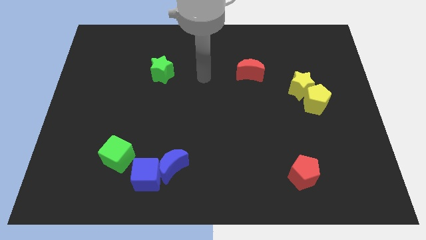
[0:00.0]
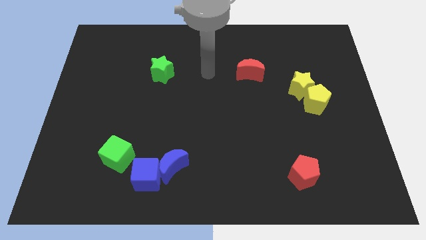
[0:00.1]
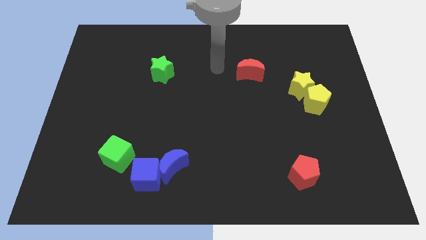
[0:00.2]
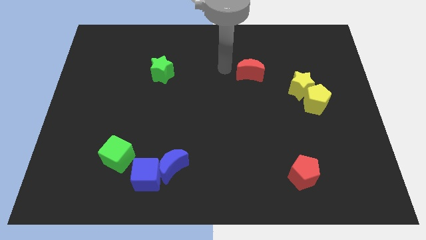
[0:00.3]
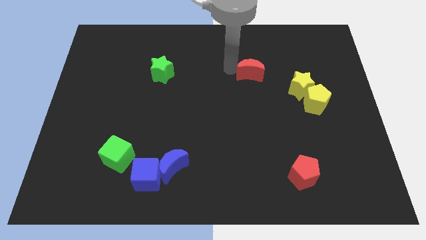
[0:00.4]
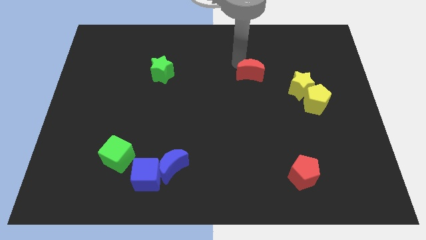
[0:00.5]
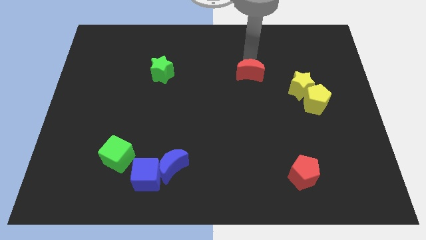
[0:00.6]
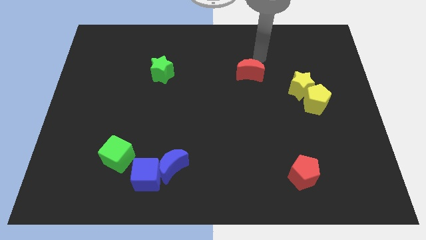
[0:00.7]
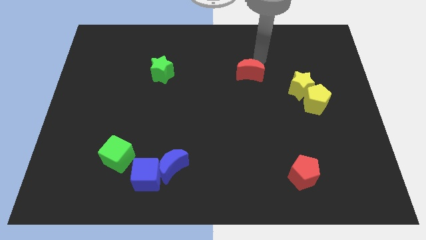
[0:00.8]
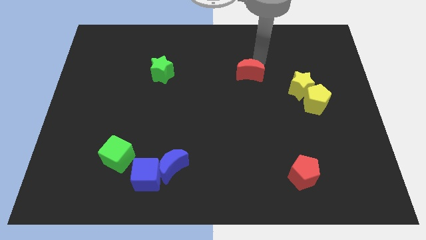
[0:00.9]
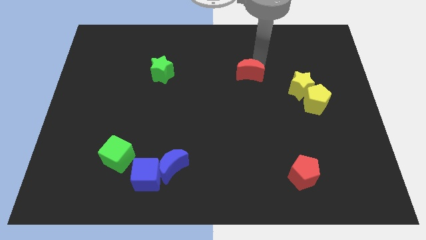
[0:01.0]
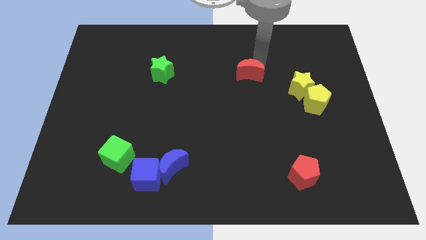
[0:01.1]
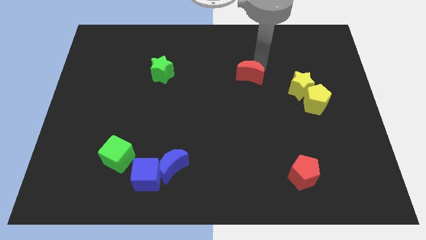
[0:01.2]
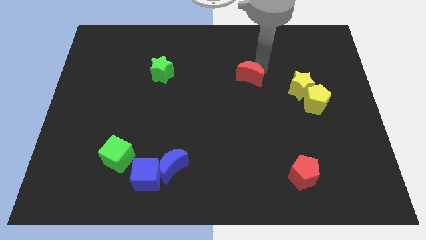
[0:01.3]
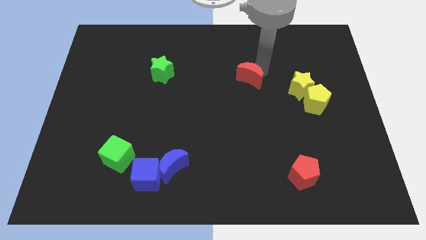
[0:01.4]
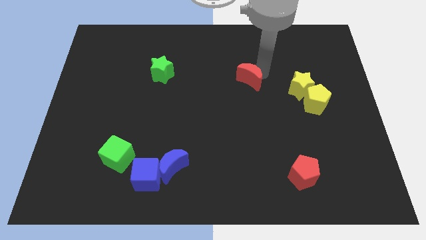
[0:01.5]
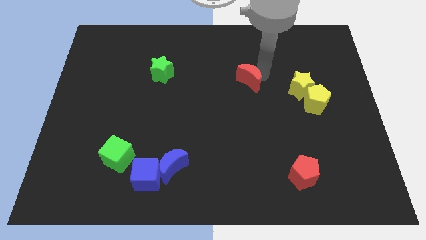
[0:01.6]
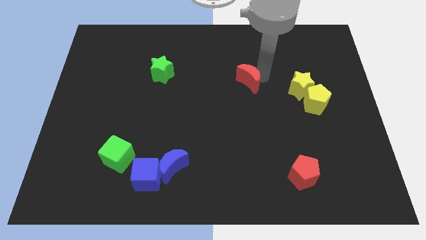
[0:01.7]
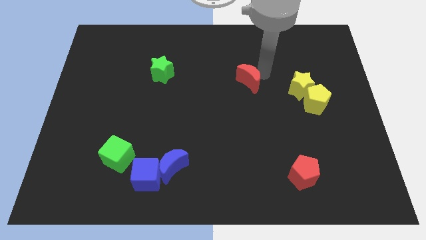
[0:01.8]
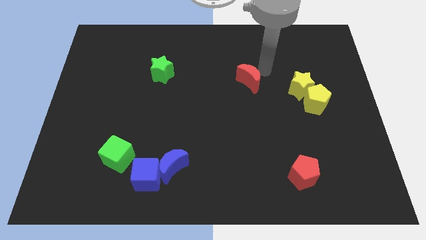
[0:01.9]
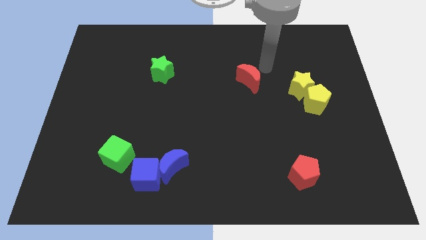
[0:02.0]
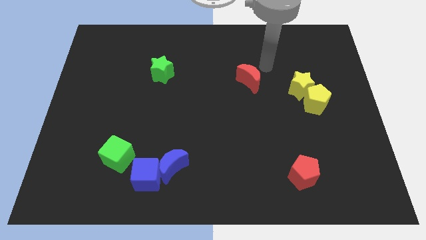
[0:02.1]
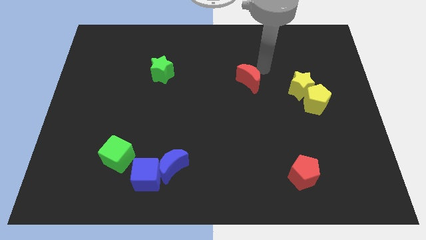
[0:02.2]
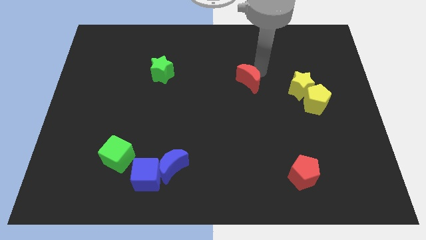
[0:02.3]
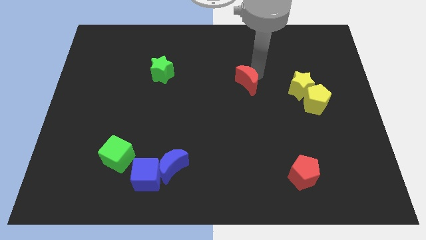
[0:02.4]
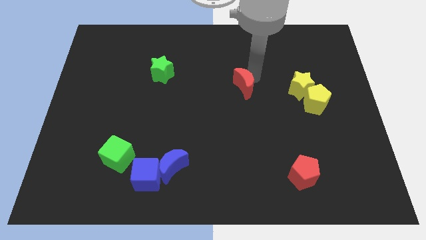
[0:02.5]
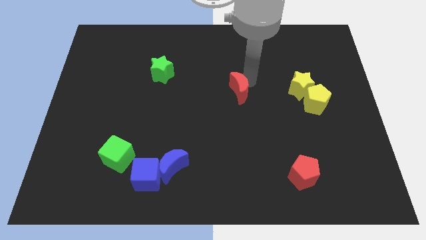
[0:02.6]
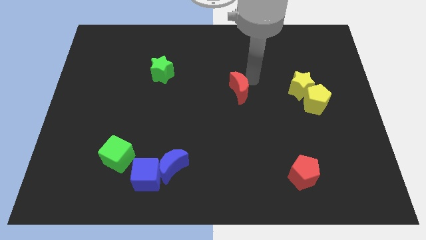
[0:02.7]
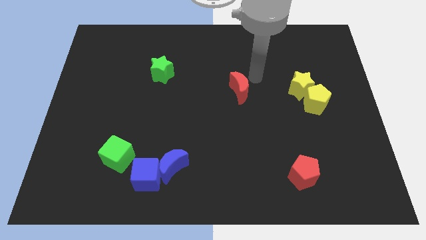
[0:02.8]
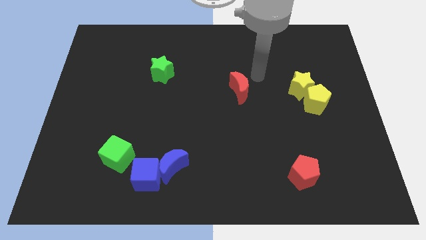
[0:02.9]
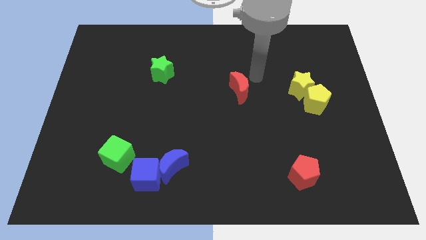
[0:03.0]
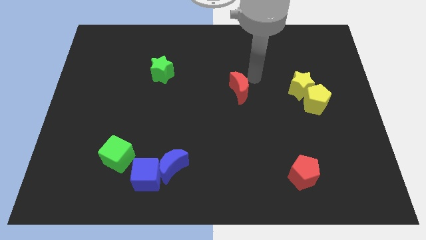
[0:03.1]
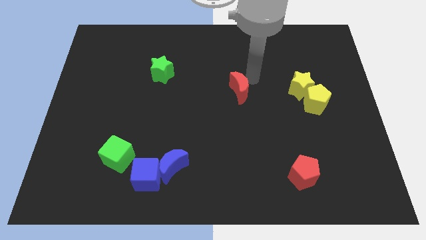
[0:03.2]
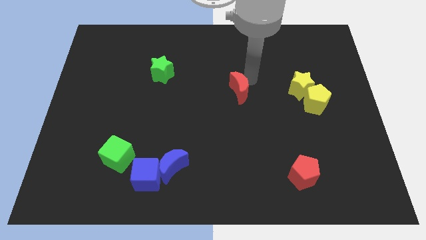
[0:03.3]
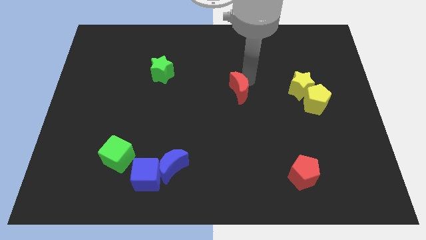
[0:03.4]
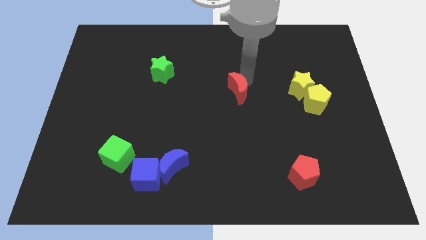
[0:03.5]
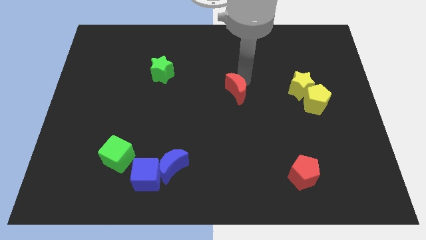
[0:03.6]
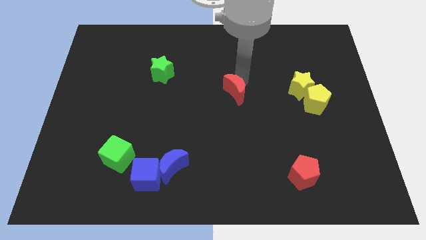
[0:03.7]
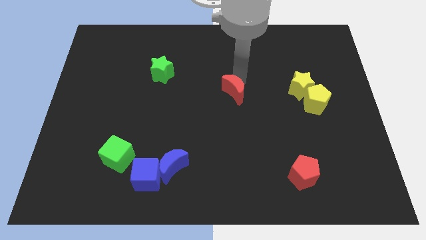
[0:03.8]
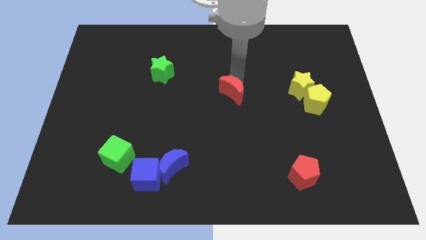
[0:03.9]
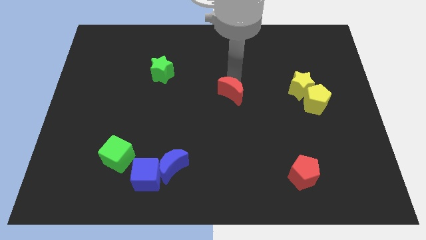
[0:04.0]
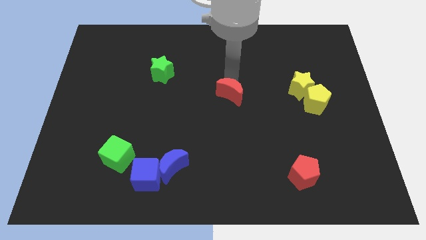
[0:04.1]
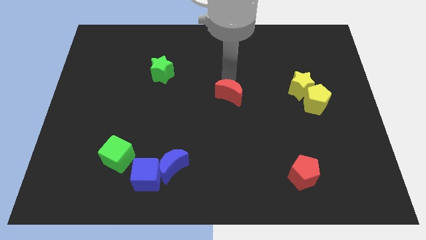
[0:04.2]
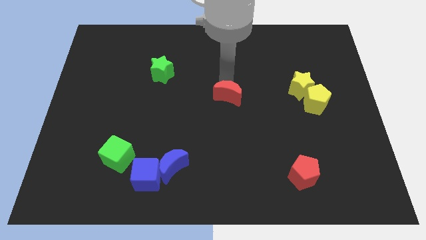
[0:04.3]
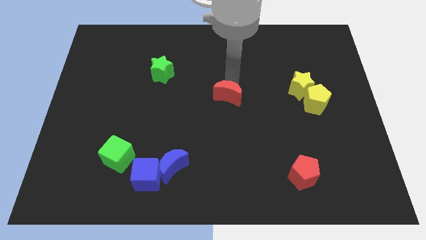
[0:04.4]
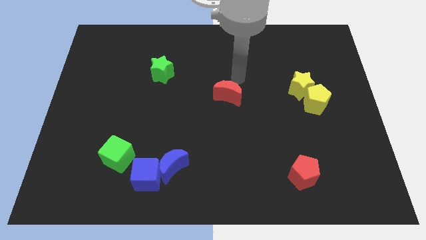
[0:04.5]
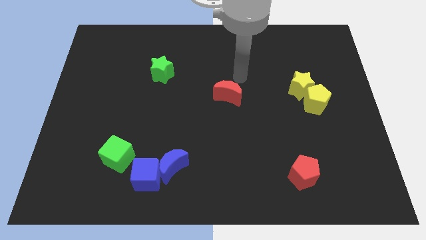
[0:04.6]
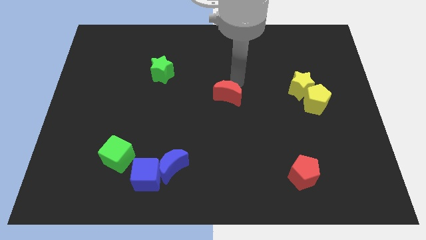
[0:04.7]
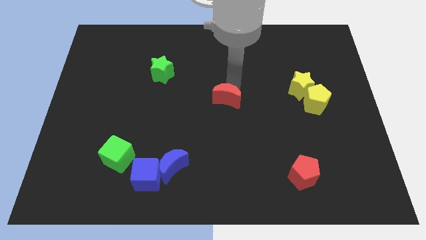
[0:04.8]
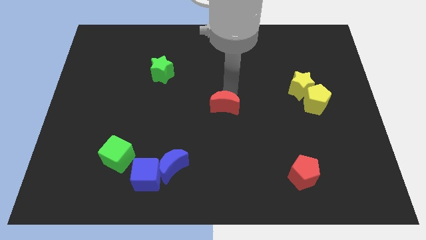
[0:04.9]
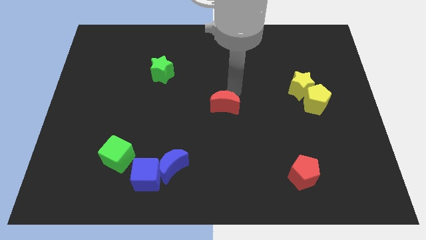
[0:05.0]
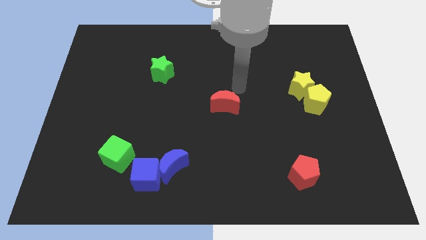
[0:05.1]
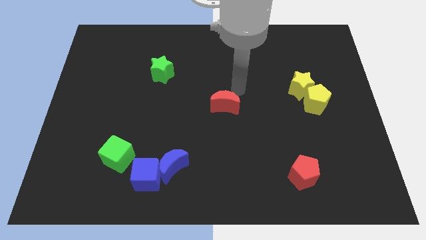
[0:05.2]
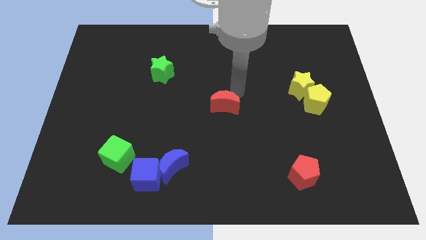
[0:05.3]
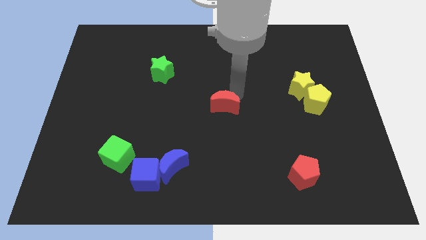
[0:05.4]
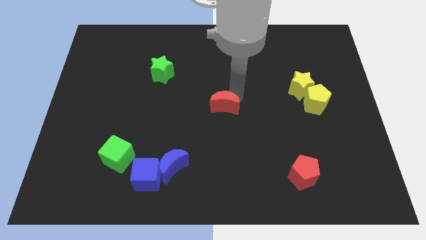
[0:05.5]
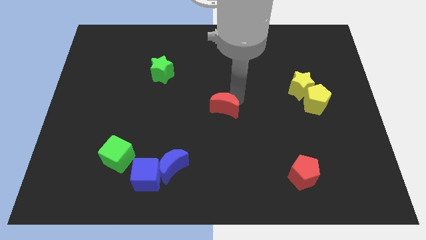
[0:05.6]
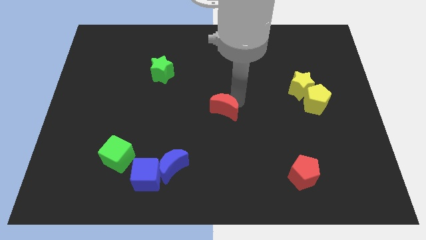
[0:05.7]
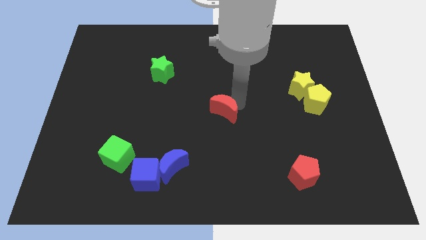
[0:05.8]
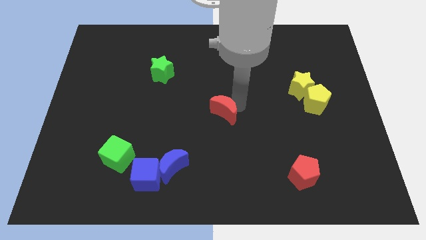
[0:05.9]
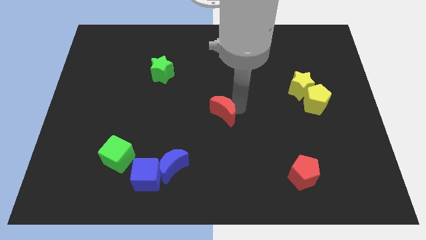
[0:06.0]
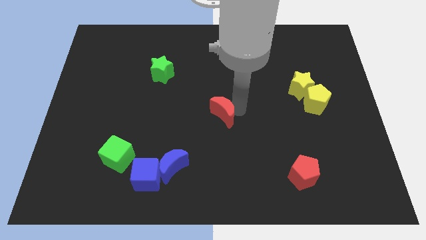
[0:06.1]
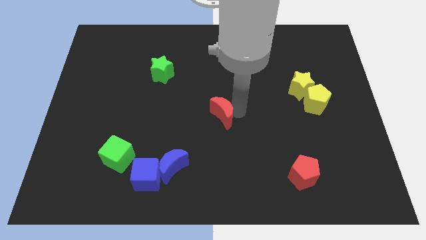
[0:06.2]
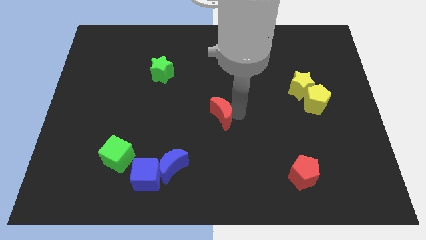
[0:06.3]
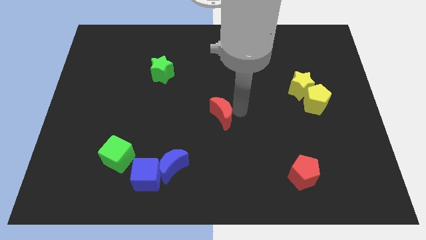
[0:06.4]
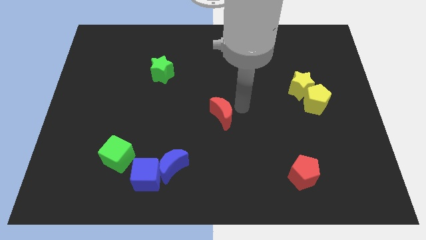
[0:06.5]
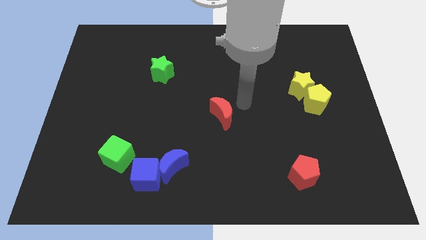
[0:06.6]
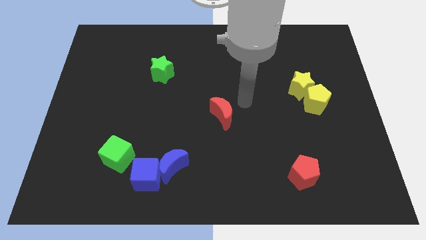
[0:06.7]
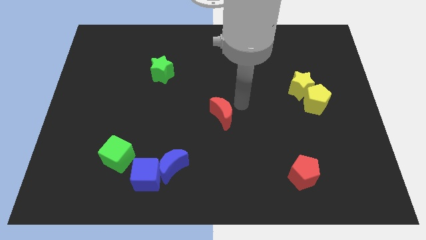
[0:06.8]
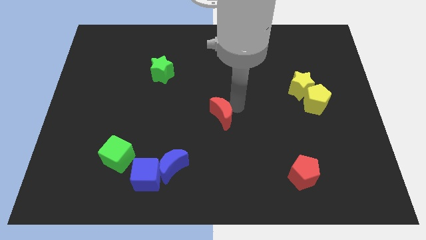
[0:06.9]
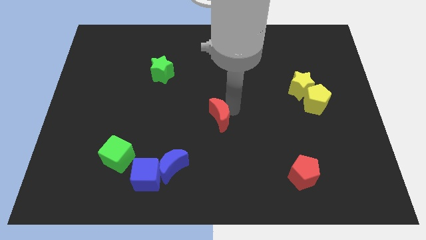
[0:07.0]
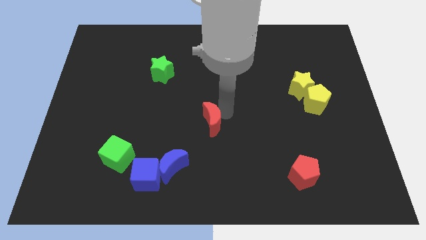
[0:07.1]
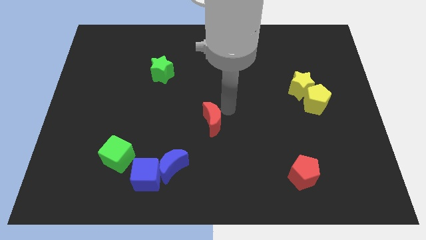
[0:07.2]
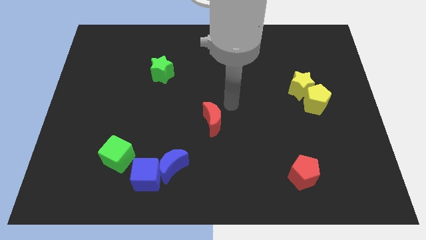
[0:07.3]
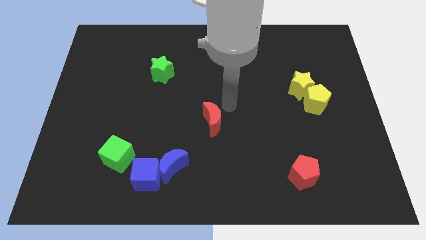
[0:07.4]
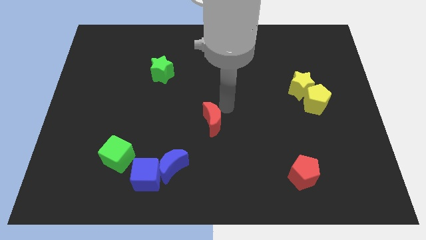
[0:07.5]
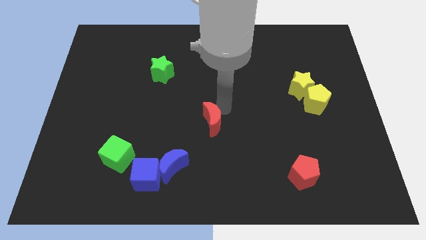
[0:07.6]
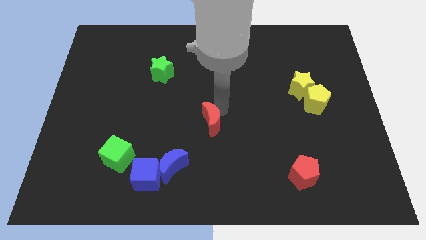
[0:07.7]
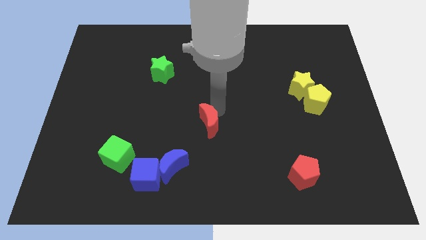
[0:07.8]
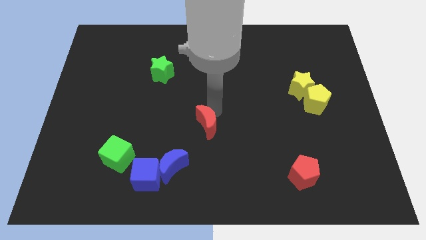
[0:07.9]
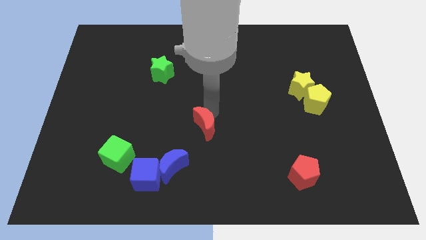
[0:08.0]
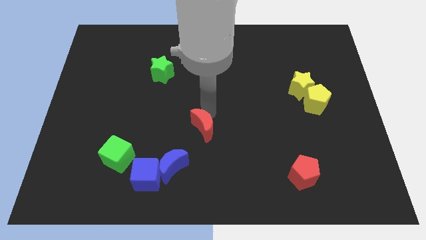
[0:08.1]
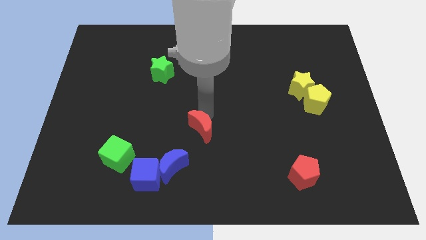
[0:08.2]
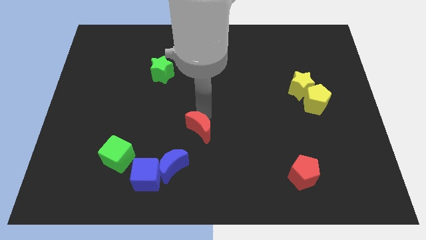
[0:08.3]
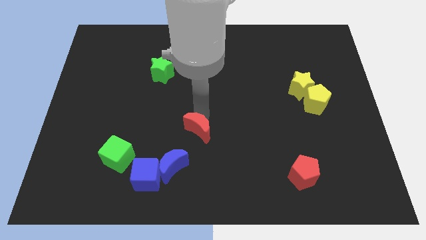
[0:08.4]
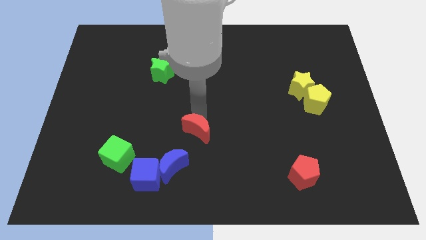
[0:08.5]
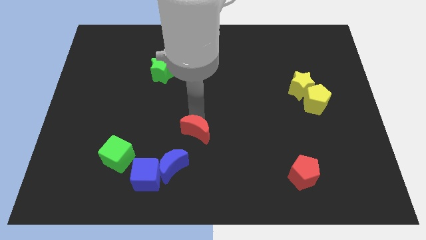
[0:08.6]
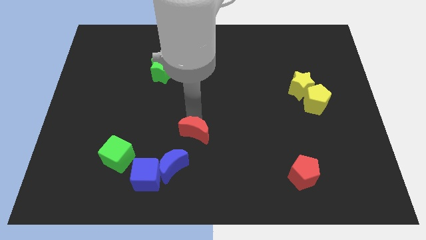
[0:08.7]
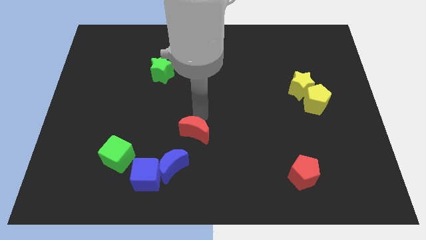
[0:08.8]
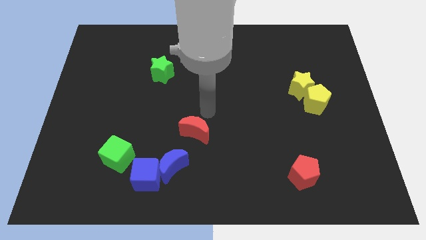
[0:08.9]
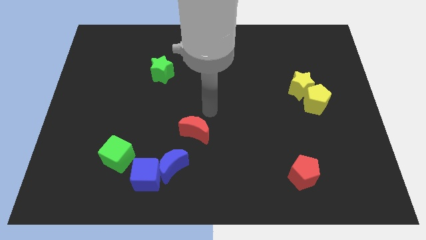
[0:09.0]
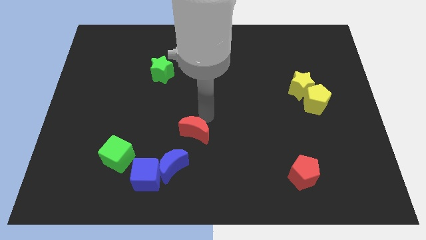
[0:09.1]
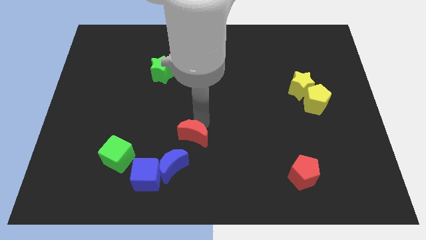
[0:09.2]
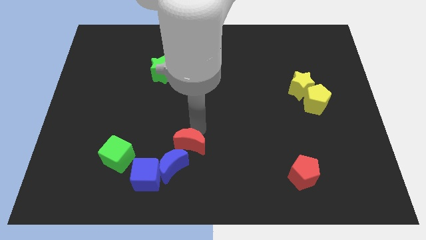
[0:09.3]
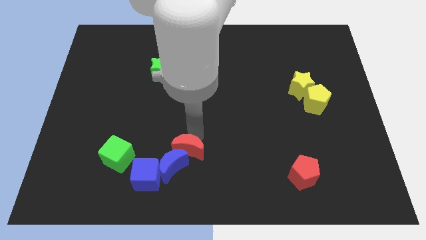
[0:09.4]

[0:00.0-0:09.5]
move the red moon next to the blue moon
